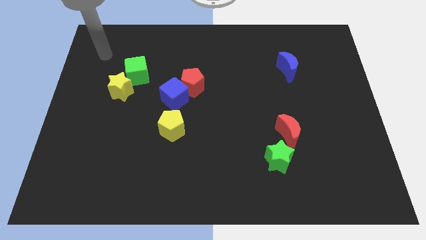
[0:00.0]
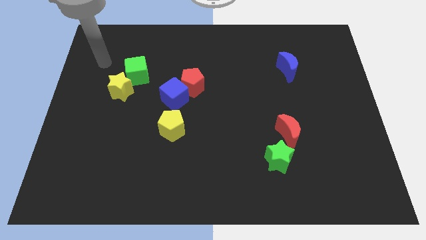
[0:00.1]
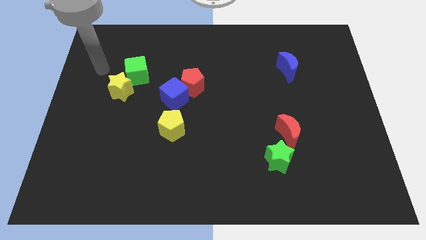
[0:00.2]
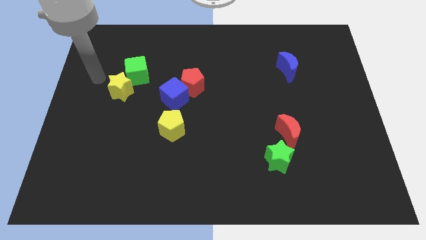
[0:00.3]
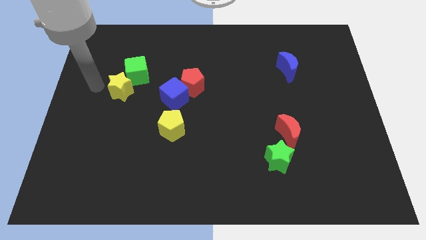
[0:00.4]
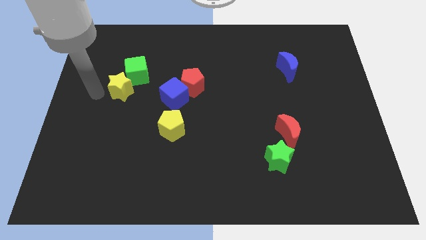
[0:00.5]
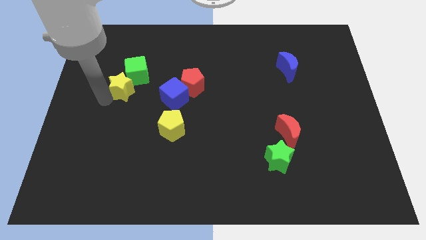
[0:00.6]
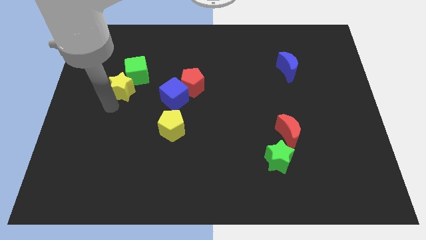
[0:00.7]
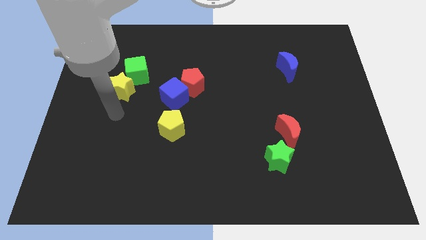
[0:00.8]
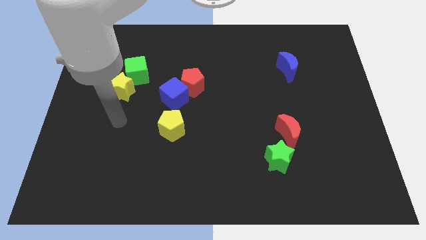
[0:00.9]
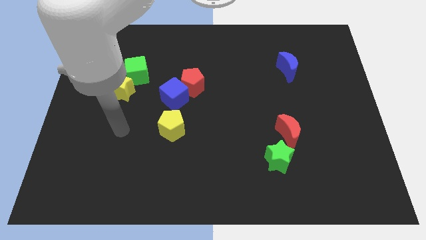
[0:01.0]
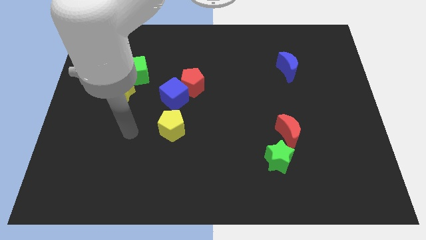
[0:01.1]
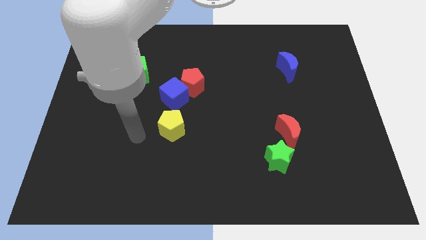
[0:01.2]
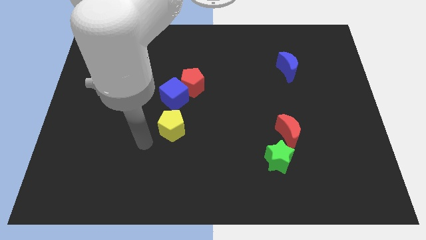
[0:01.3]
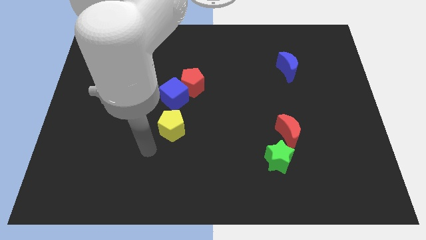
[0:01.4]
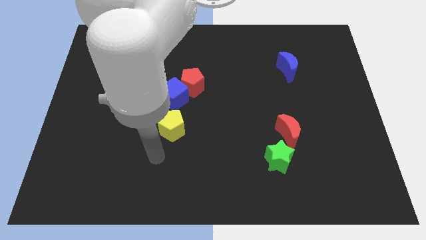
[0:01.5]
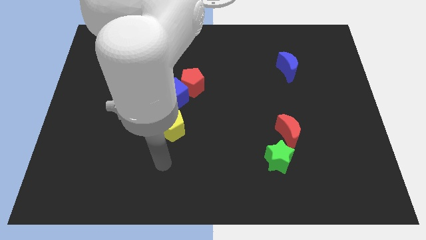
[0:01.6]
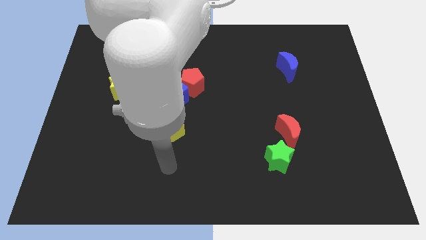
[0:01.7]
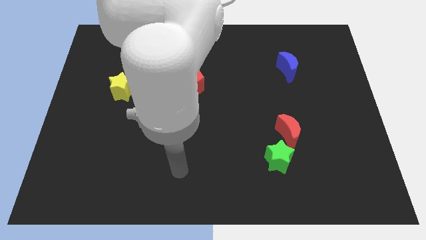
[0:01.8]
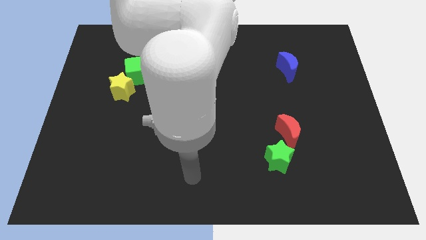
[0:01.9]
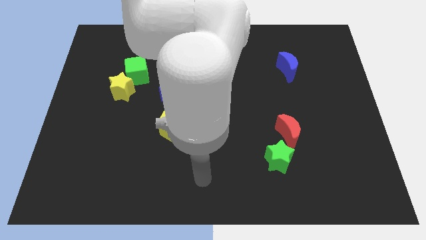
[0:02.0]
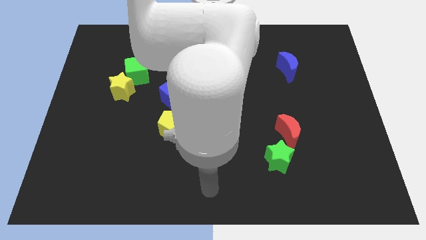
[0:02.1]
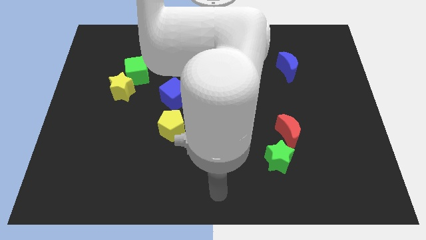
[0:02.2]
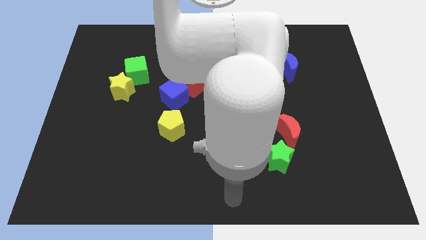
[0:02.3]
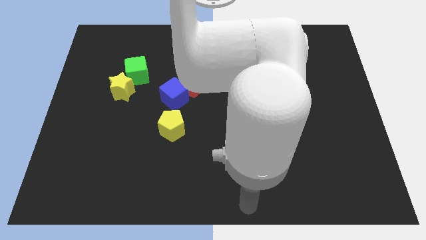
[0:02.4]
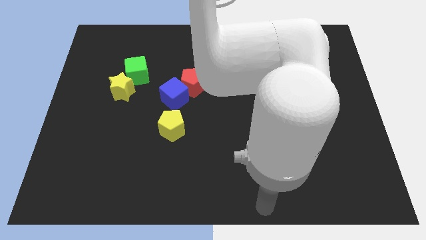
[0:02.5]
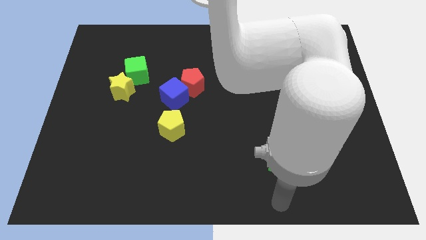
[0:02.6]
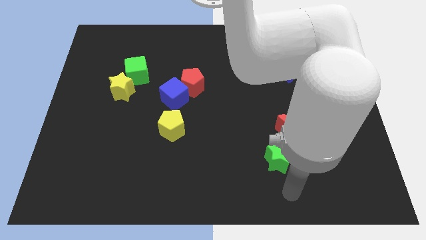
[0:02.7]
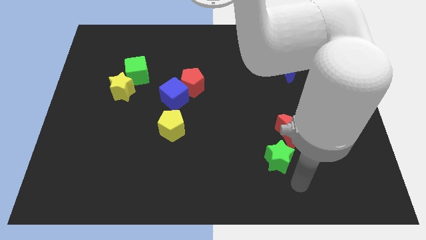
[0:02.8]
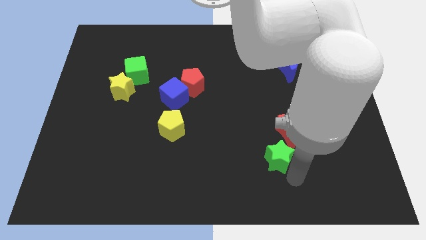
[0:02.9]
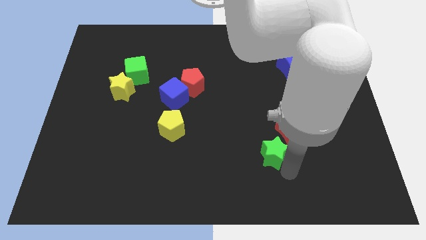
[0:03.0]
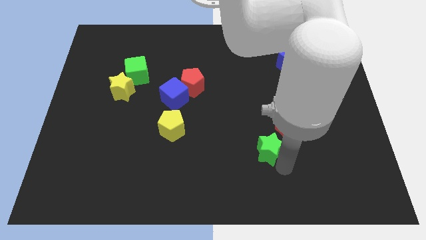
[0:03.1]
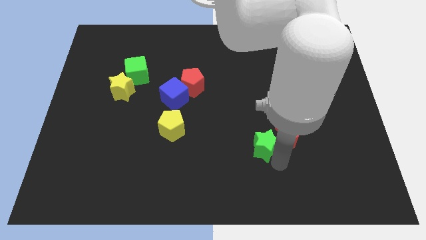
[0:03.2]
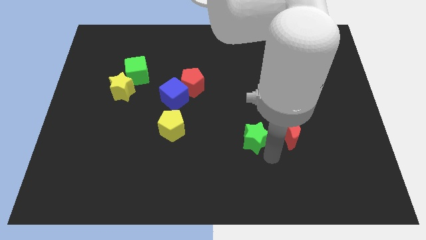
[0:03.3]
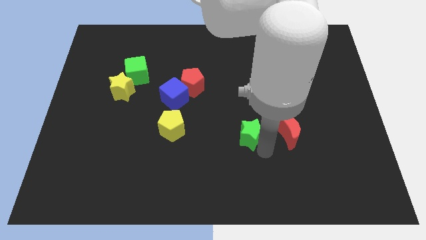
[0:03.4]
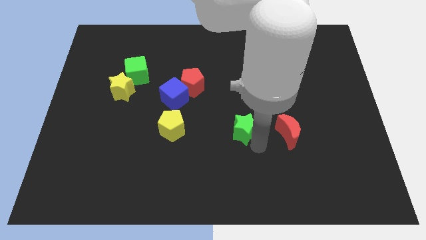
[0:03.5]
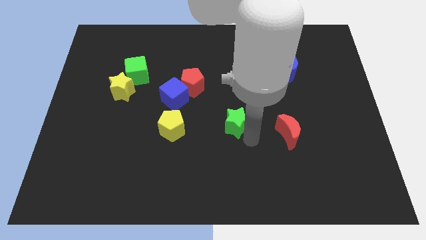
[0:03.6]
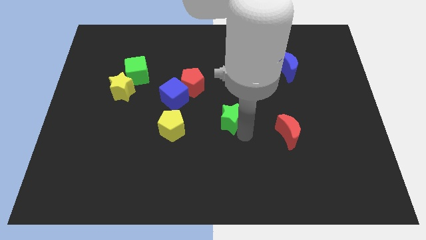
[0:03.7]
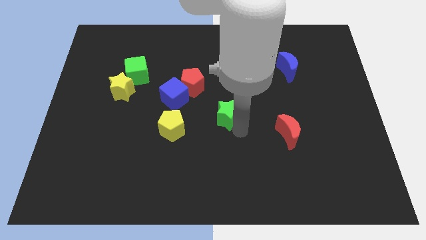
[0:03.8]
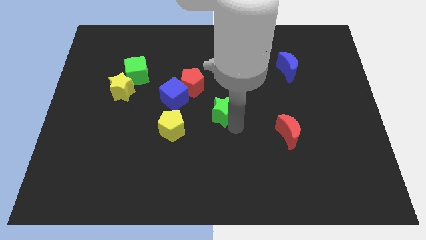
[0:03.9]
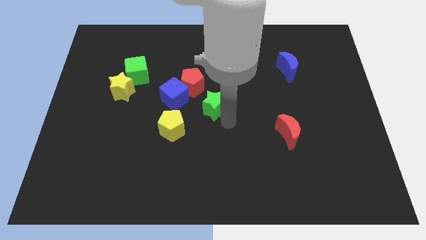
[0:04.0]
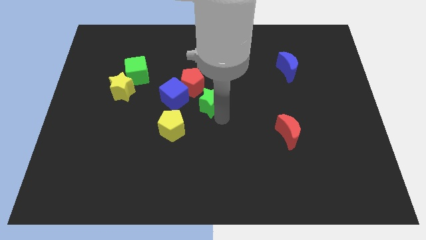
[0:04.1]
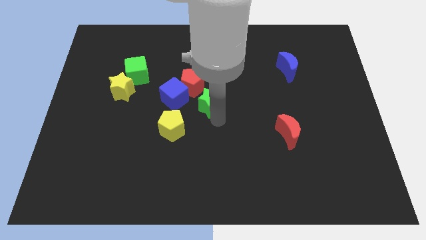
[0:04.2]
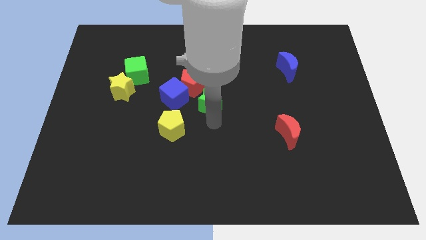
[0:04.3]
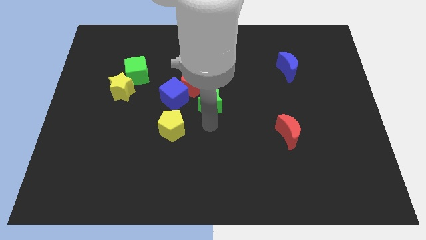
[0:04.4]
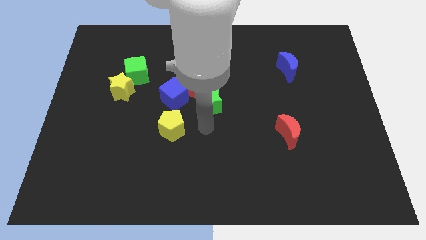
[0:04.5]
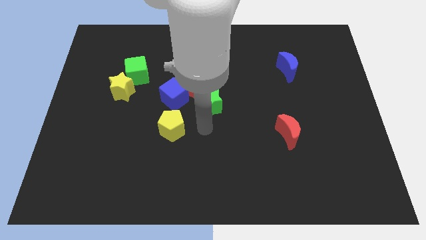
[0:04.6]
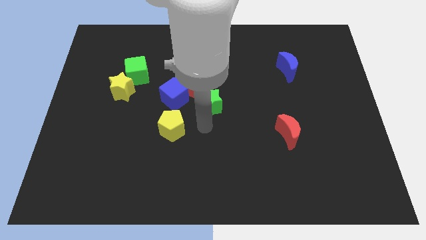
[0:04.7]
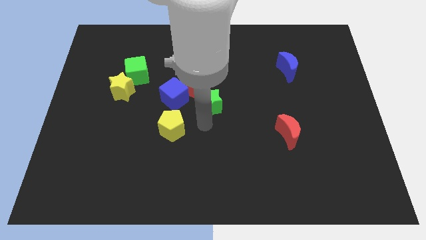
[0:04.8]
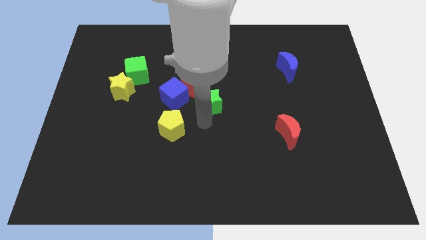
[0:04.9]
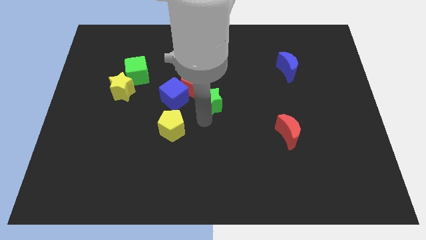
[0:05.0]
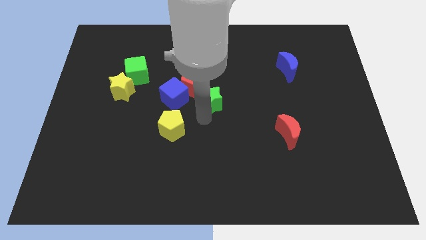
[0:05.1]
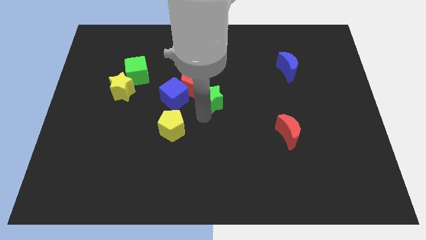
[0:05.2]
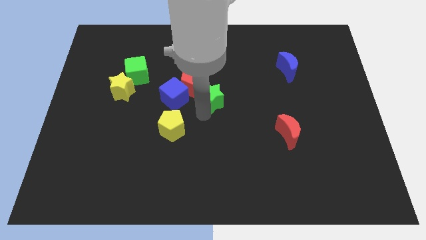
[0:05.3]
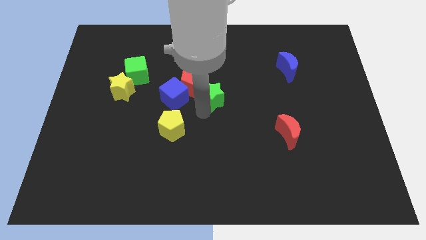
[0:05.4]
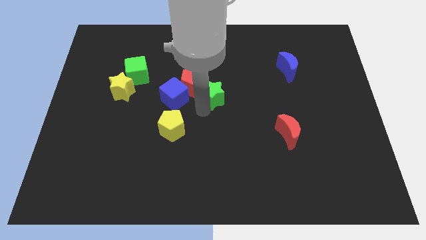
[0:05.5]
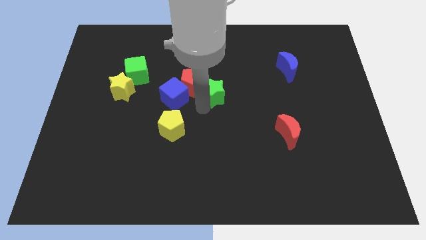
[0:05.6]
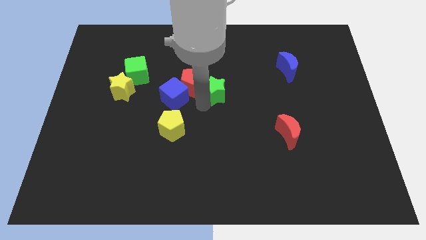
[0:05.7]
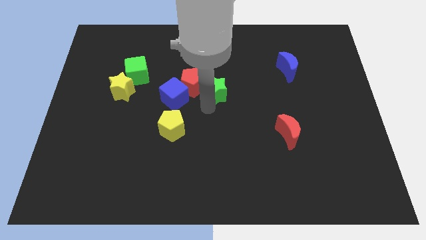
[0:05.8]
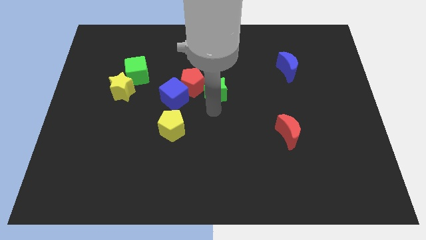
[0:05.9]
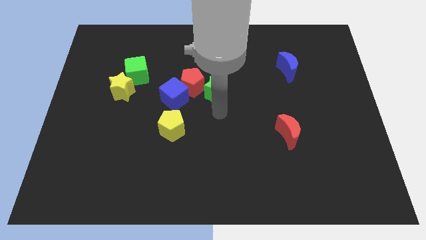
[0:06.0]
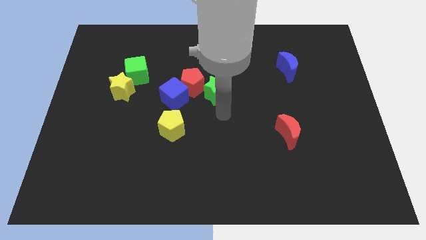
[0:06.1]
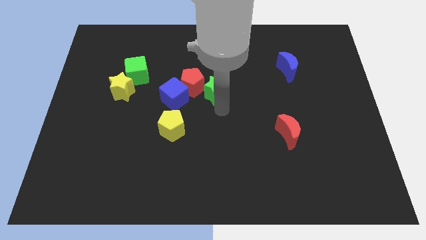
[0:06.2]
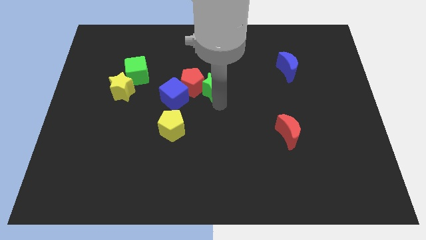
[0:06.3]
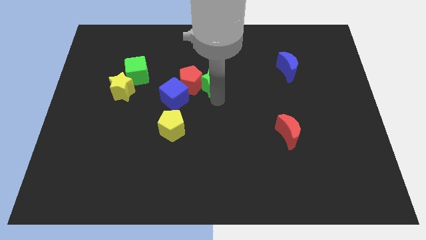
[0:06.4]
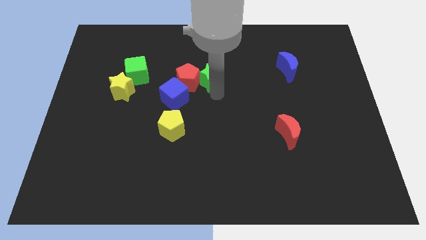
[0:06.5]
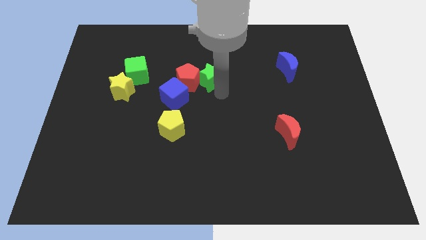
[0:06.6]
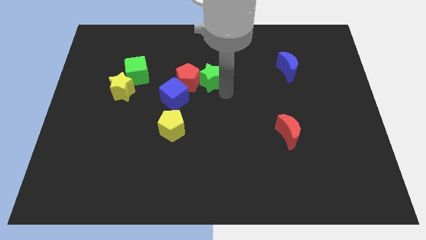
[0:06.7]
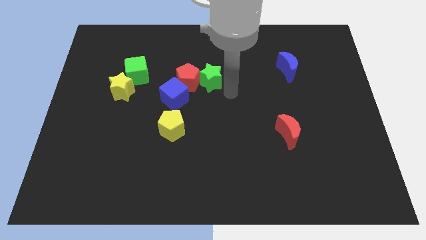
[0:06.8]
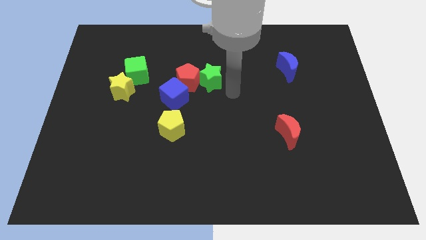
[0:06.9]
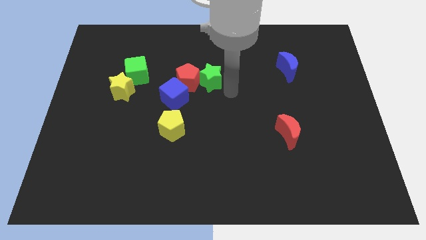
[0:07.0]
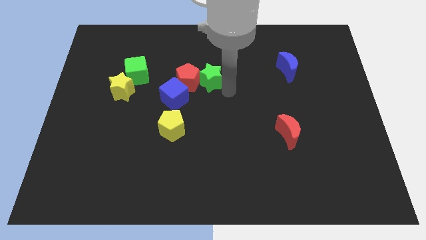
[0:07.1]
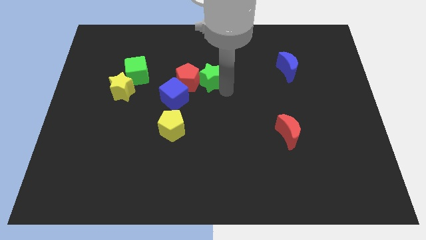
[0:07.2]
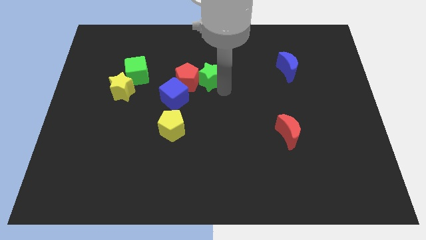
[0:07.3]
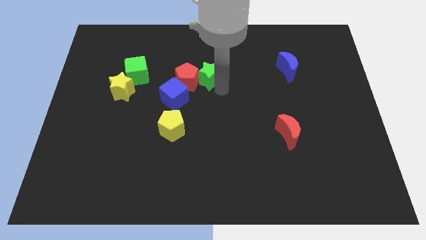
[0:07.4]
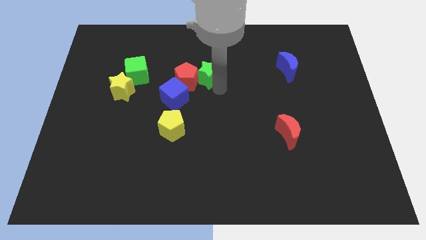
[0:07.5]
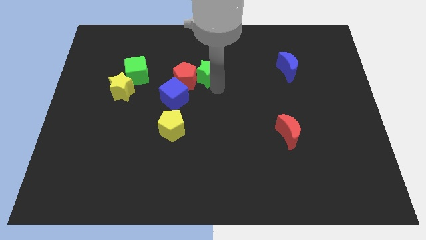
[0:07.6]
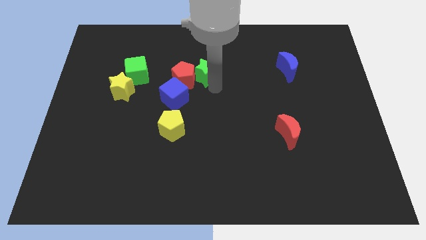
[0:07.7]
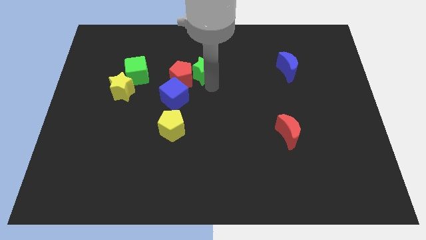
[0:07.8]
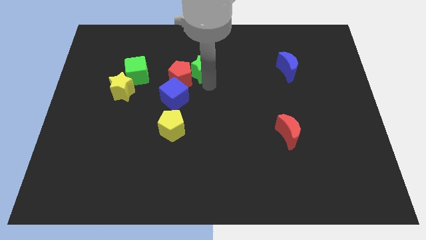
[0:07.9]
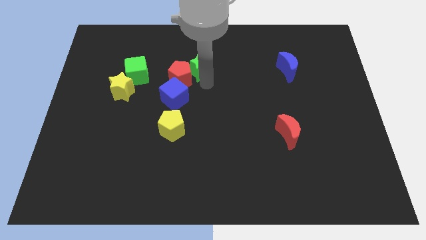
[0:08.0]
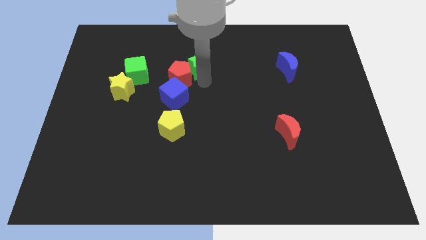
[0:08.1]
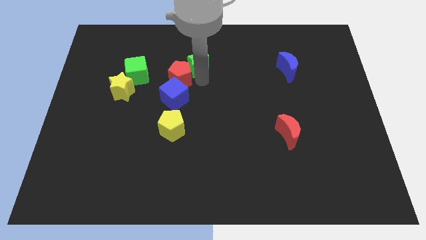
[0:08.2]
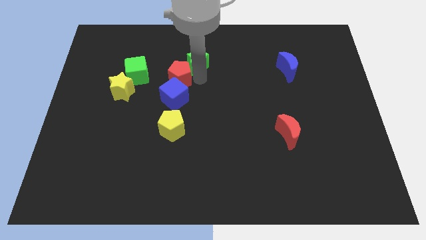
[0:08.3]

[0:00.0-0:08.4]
push the green star to the top side of the blue cube
